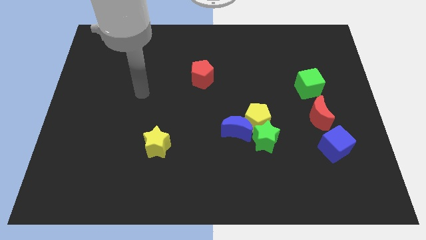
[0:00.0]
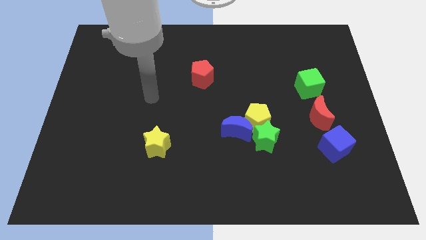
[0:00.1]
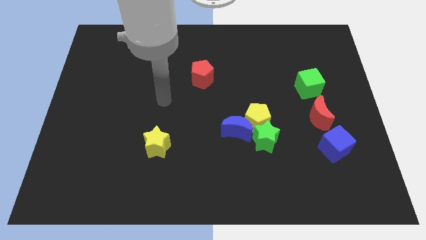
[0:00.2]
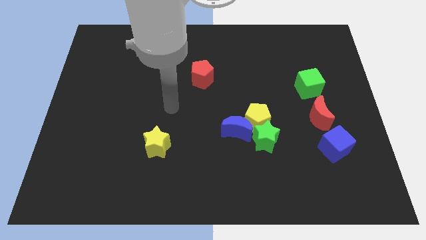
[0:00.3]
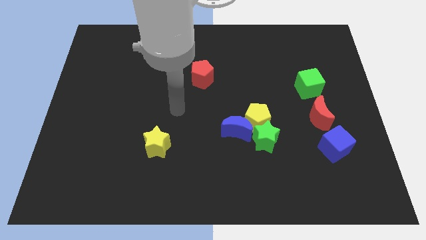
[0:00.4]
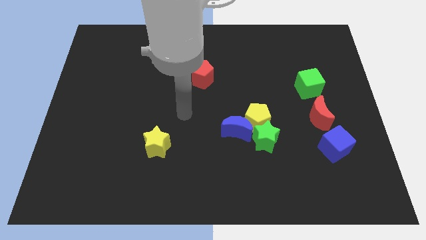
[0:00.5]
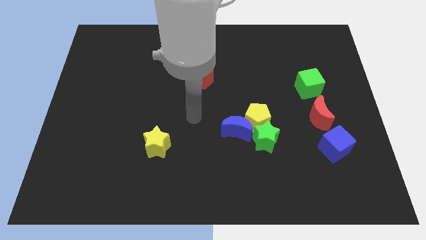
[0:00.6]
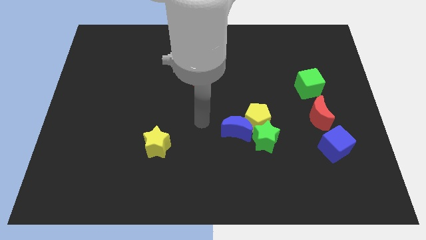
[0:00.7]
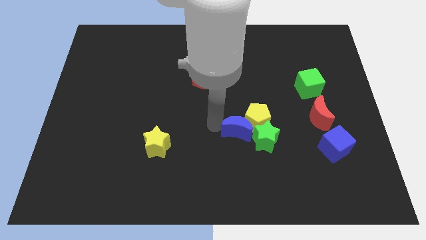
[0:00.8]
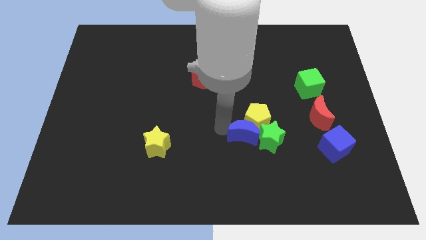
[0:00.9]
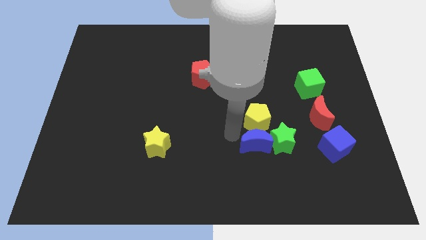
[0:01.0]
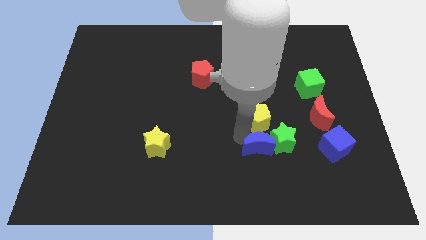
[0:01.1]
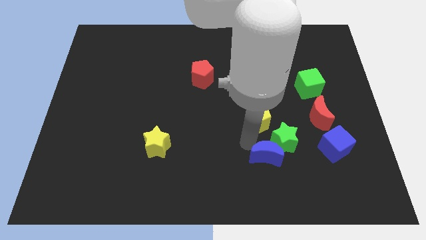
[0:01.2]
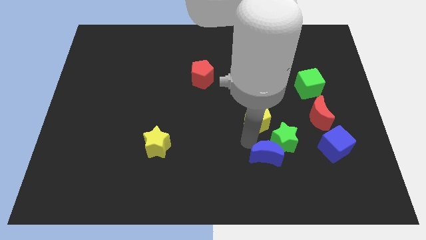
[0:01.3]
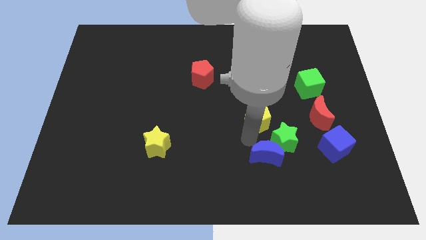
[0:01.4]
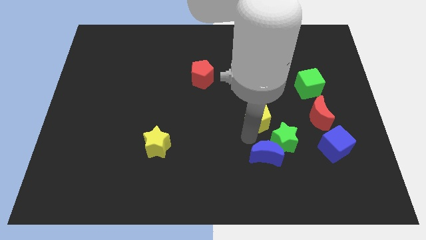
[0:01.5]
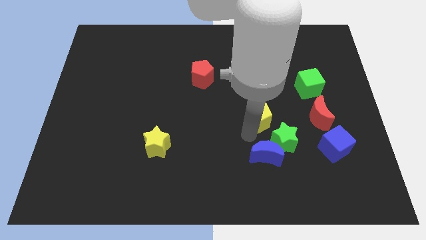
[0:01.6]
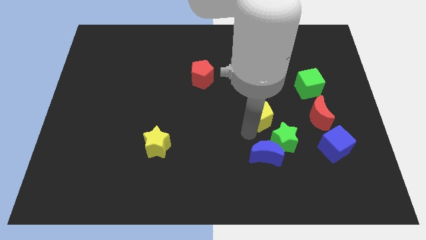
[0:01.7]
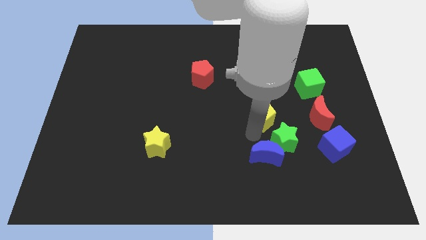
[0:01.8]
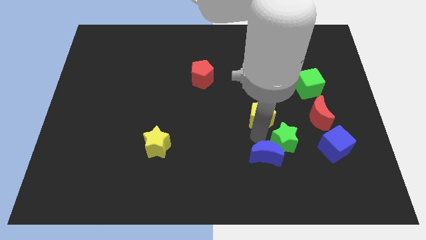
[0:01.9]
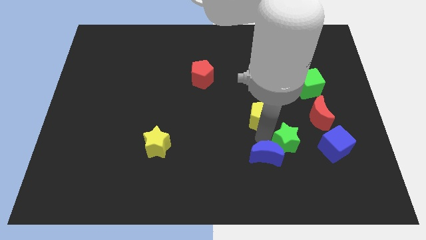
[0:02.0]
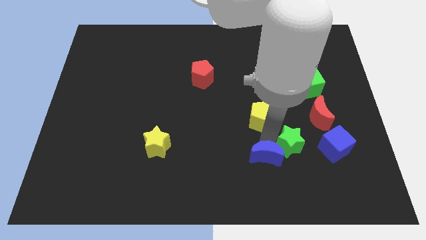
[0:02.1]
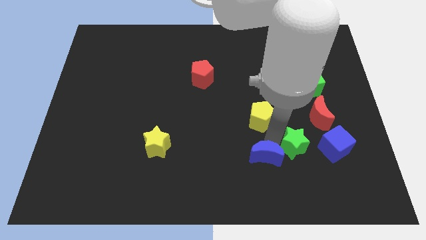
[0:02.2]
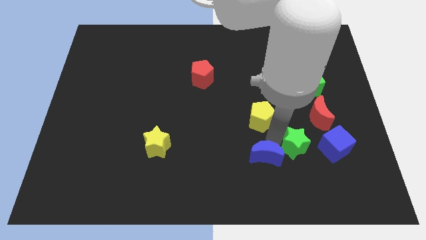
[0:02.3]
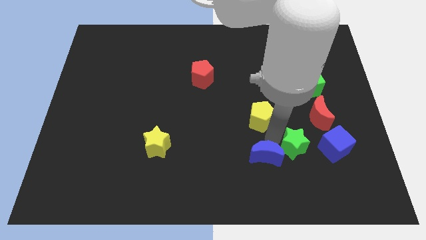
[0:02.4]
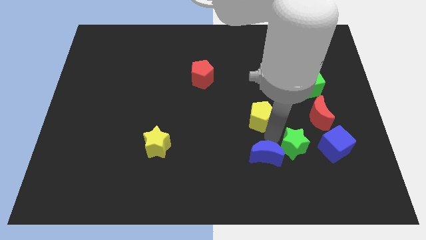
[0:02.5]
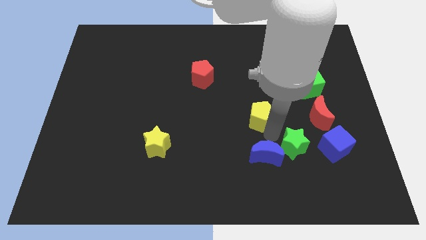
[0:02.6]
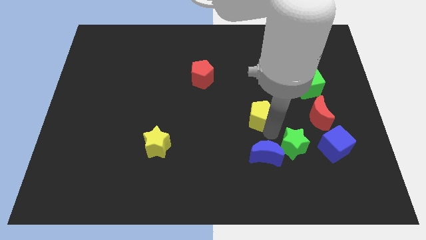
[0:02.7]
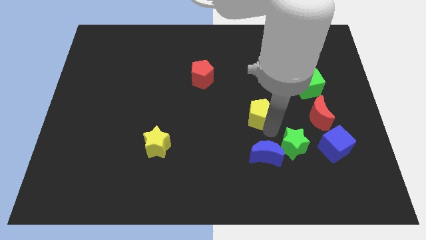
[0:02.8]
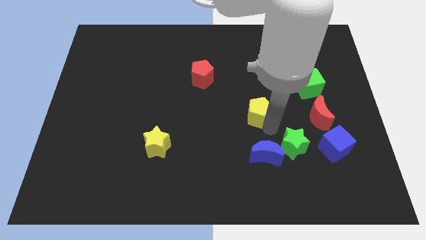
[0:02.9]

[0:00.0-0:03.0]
move the yellow pentagon away from the blue moon and green star

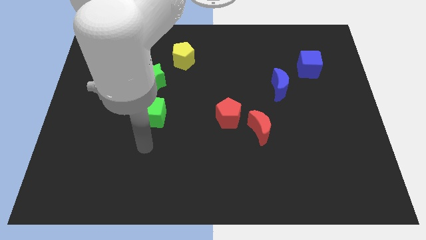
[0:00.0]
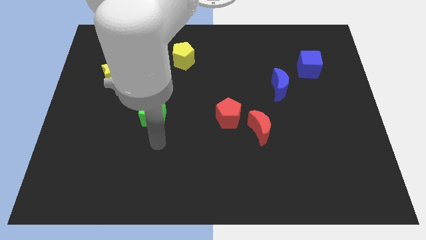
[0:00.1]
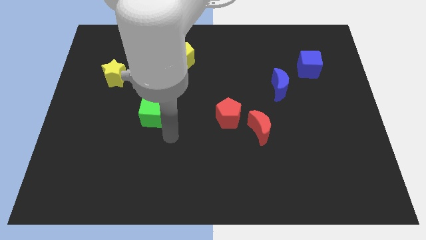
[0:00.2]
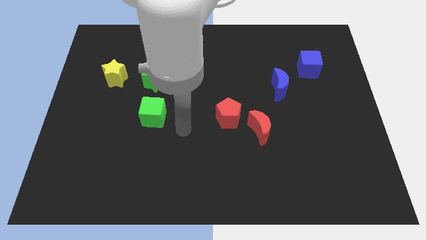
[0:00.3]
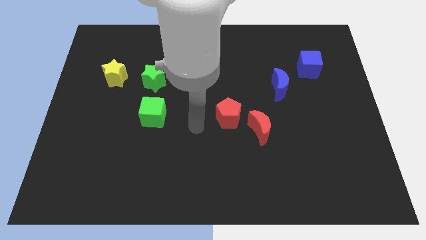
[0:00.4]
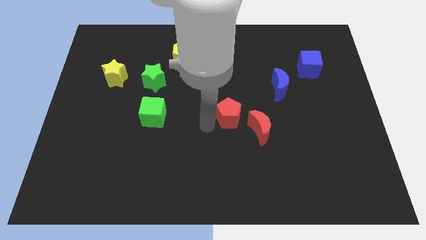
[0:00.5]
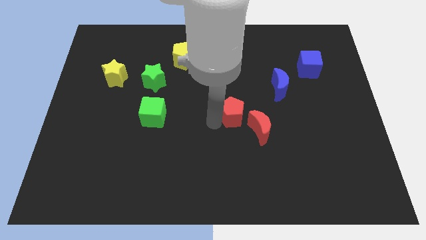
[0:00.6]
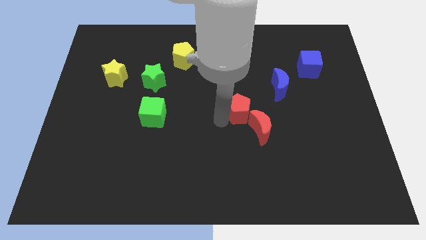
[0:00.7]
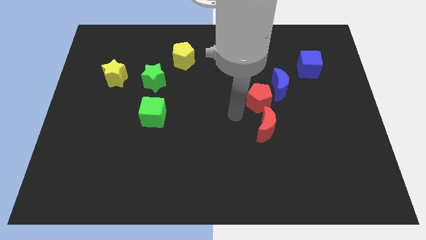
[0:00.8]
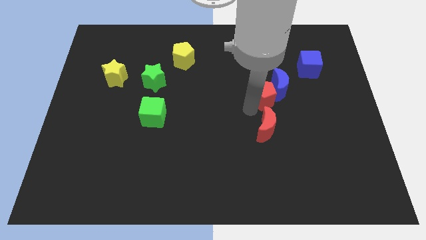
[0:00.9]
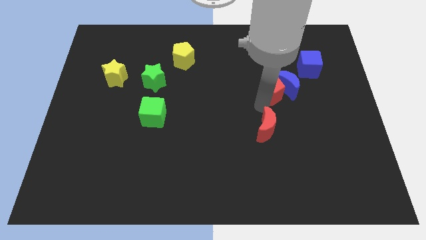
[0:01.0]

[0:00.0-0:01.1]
move the red moon away from the red pentagon

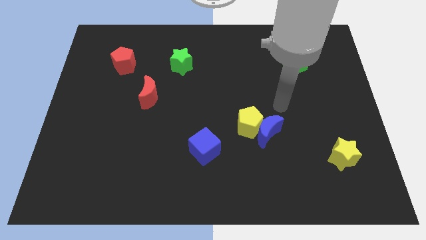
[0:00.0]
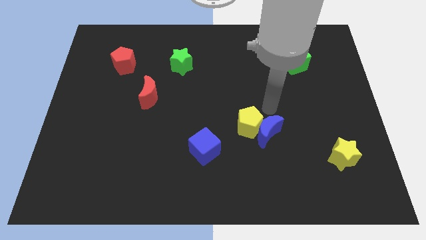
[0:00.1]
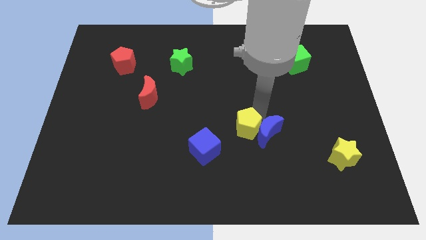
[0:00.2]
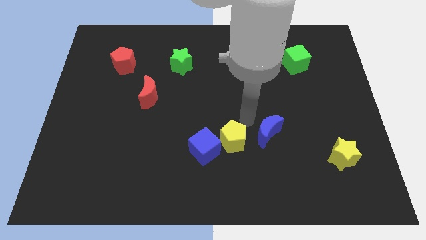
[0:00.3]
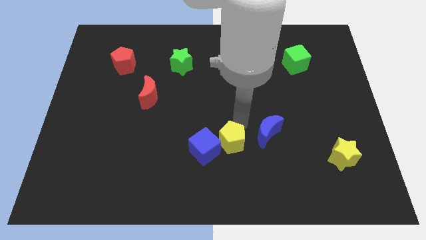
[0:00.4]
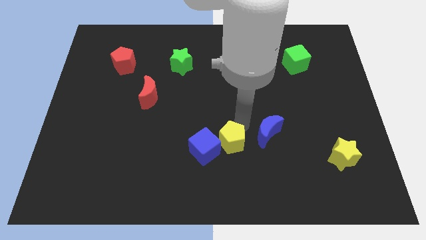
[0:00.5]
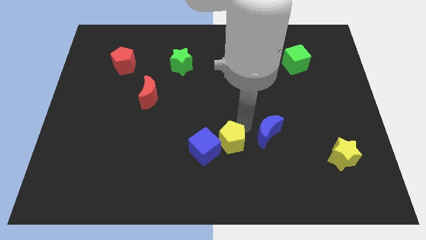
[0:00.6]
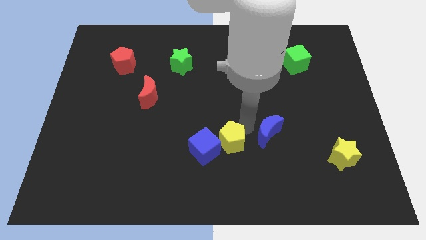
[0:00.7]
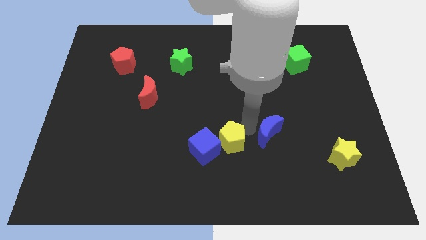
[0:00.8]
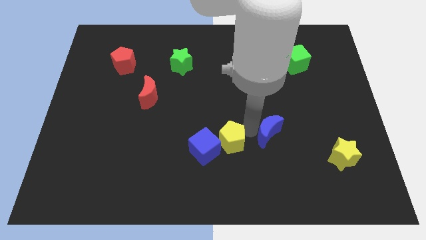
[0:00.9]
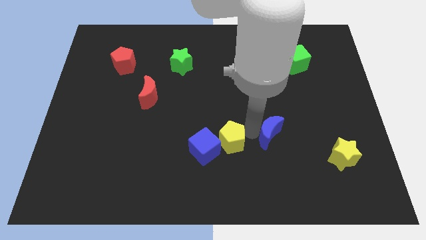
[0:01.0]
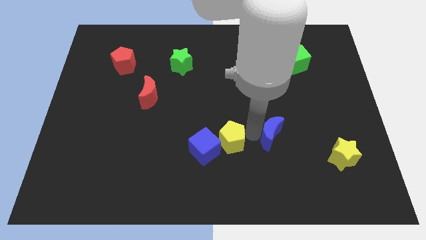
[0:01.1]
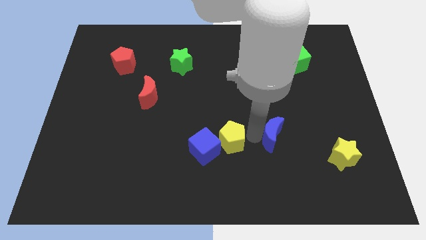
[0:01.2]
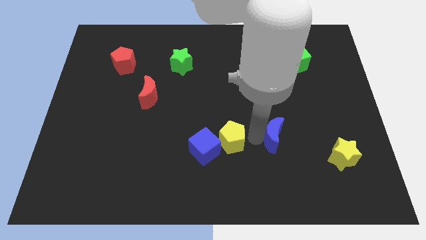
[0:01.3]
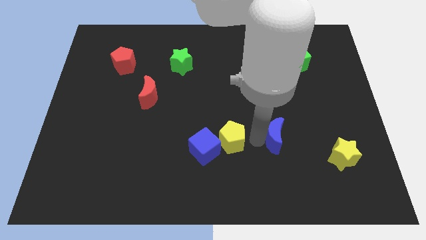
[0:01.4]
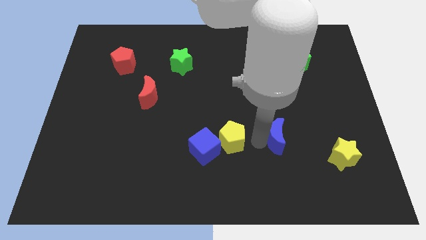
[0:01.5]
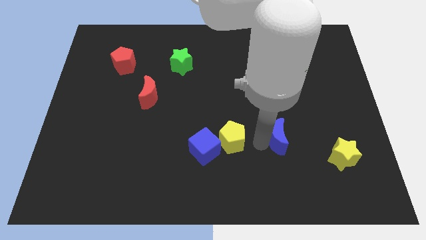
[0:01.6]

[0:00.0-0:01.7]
move the blue moon away from the yellow pentagon

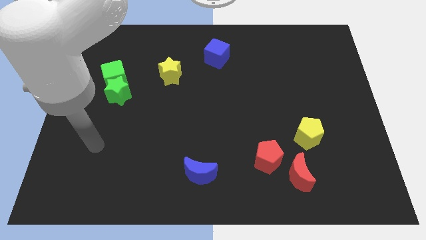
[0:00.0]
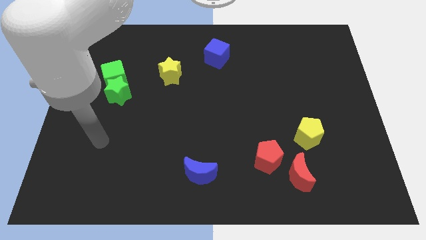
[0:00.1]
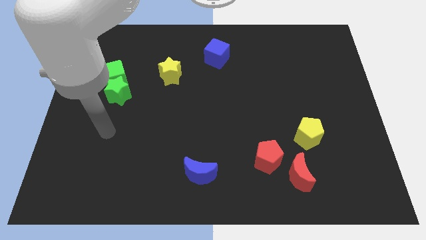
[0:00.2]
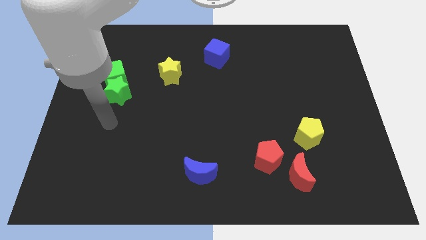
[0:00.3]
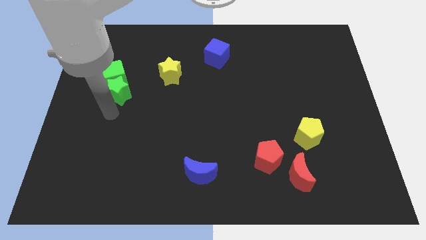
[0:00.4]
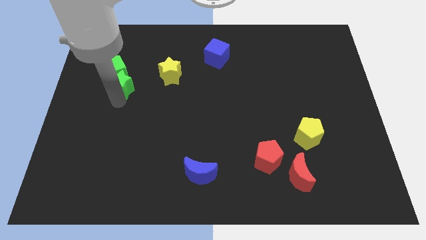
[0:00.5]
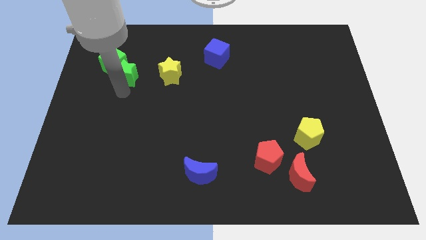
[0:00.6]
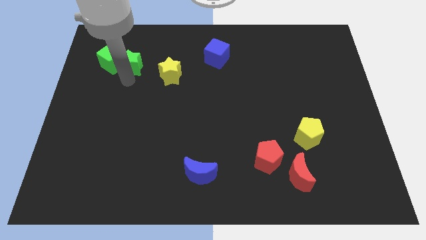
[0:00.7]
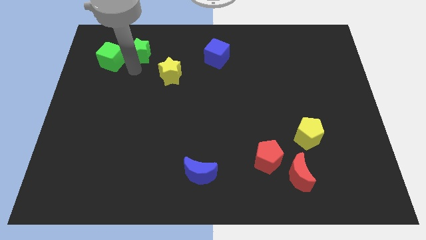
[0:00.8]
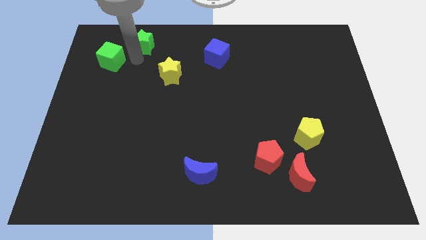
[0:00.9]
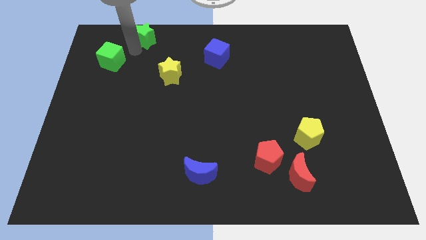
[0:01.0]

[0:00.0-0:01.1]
pull the green cube apart from the green star

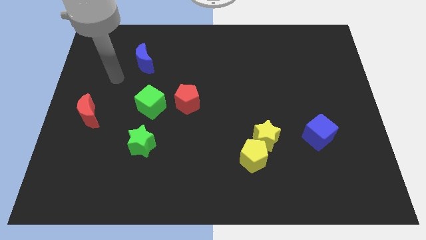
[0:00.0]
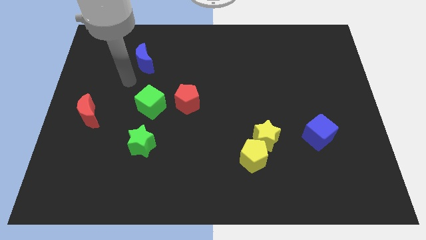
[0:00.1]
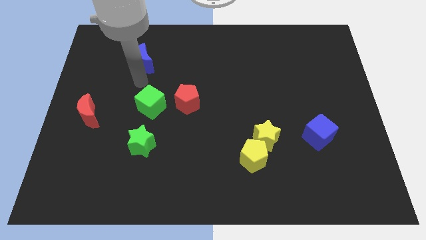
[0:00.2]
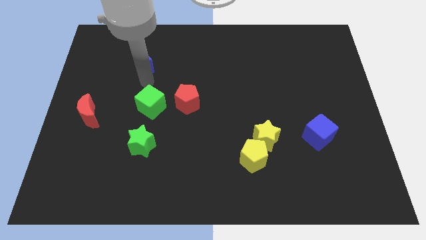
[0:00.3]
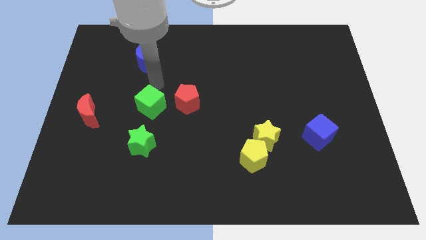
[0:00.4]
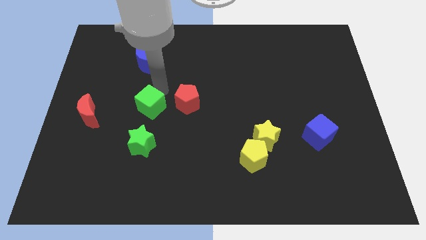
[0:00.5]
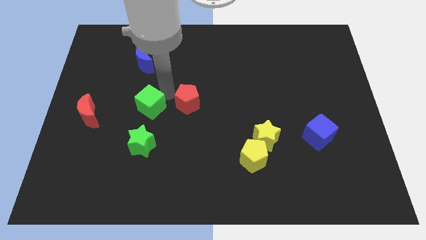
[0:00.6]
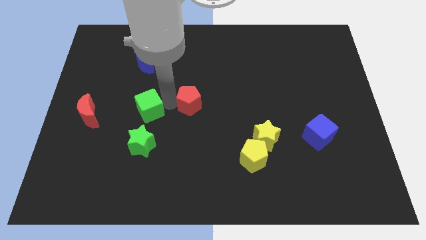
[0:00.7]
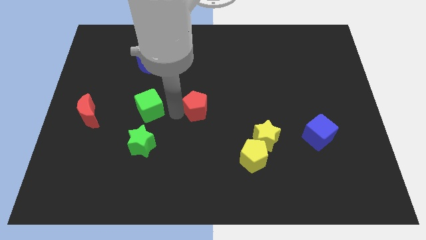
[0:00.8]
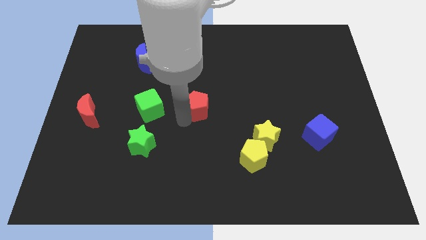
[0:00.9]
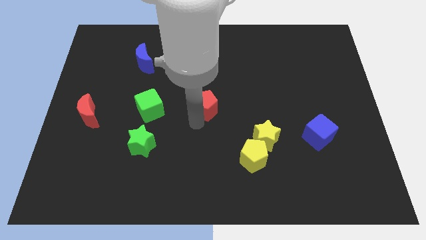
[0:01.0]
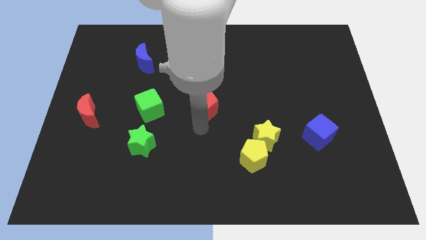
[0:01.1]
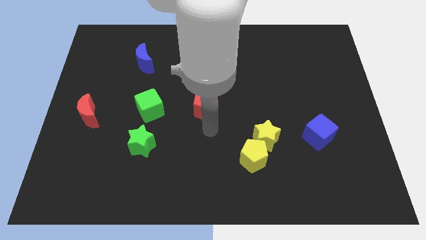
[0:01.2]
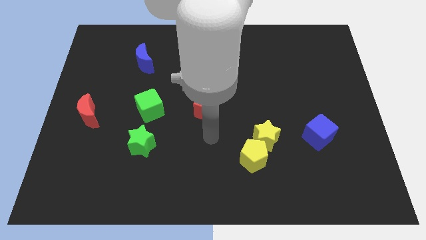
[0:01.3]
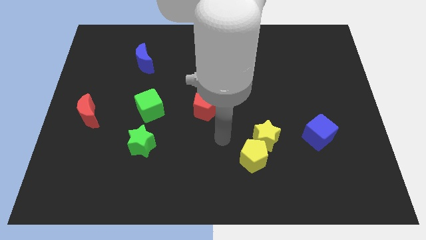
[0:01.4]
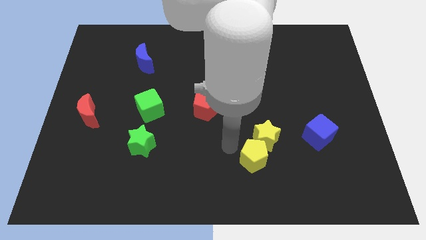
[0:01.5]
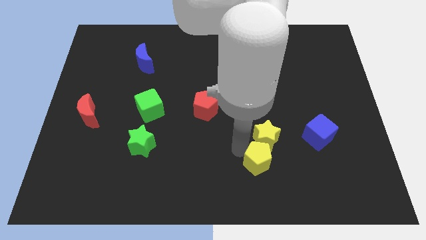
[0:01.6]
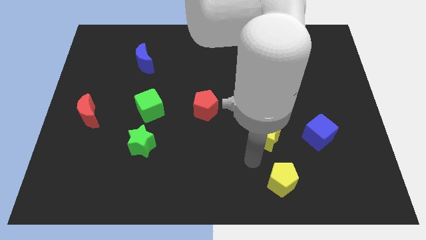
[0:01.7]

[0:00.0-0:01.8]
move the yellow star away from the yellow pentagon

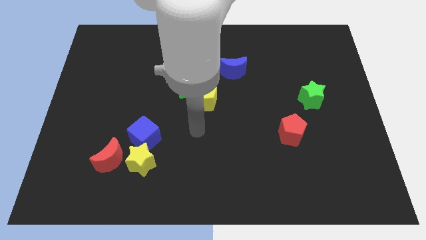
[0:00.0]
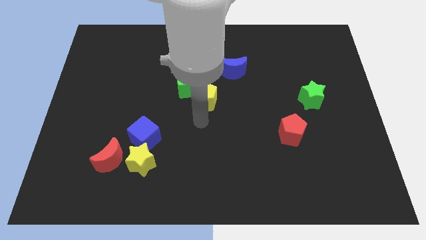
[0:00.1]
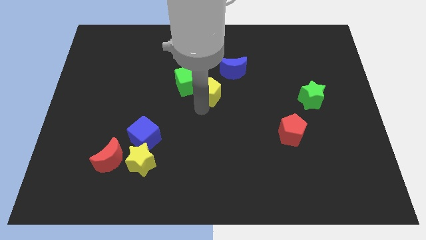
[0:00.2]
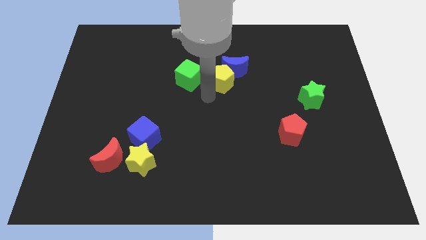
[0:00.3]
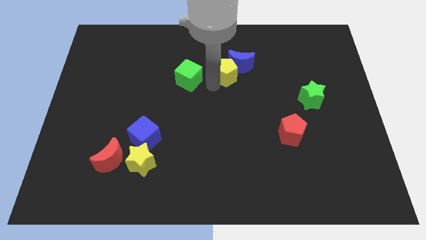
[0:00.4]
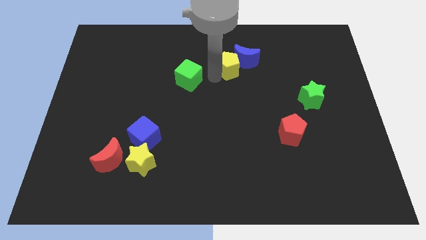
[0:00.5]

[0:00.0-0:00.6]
separate the green cube from the yellow pentagon
